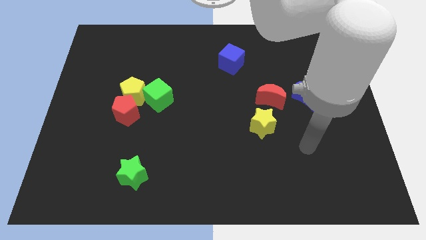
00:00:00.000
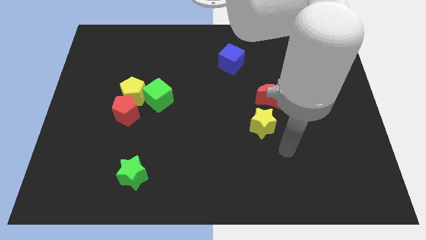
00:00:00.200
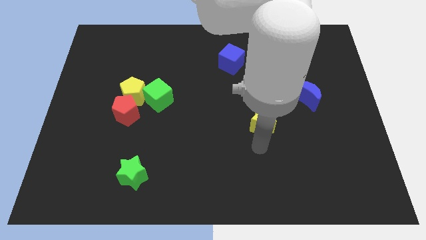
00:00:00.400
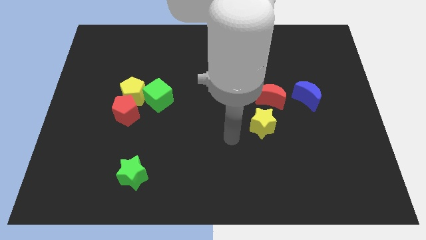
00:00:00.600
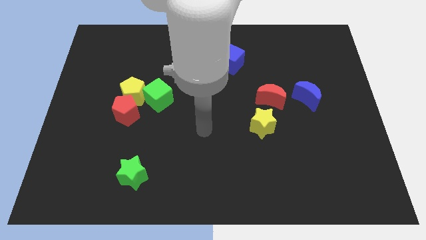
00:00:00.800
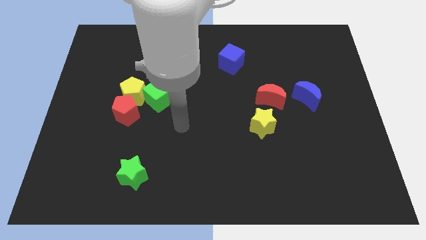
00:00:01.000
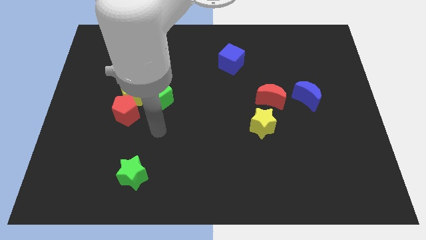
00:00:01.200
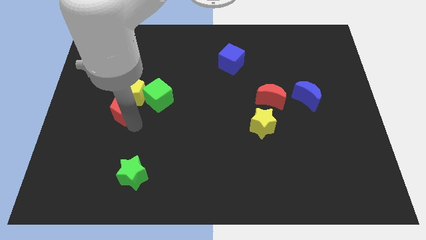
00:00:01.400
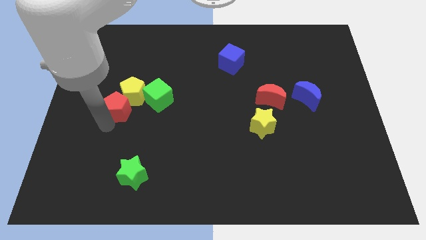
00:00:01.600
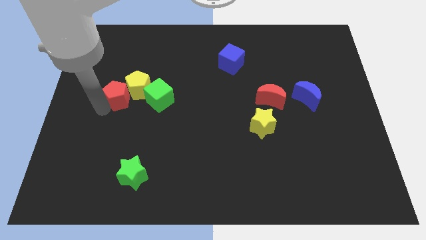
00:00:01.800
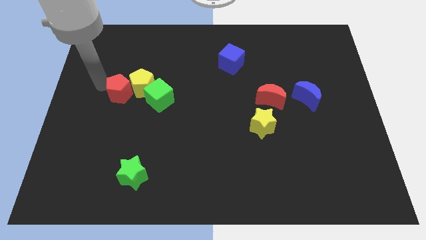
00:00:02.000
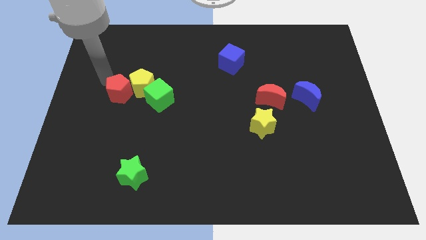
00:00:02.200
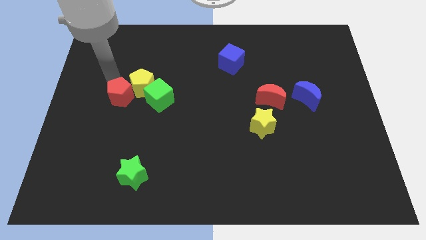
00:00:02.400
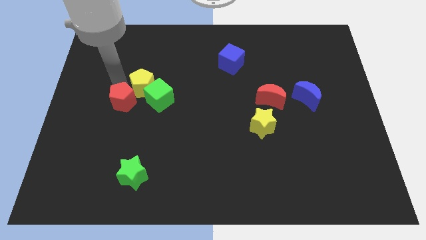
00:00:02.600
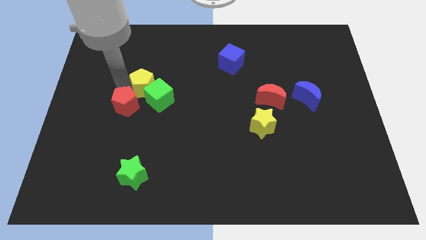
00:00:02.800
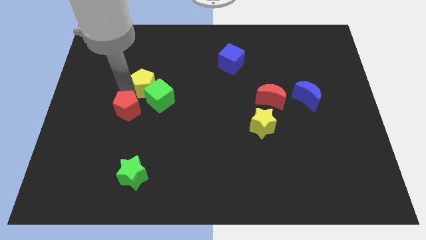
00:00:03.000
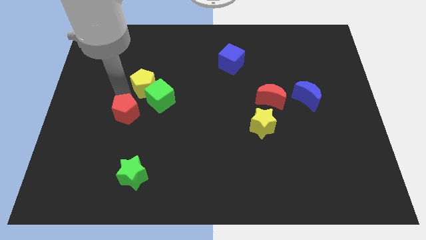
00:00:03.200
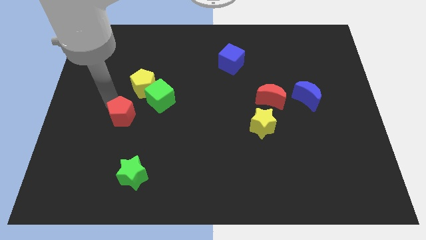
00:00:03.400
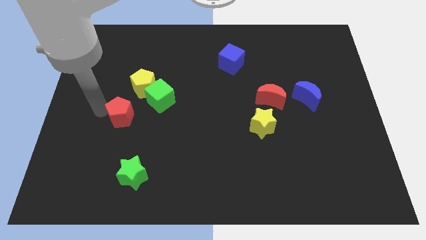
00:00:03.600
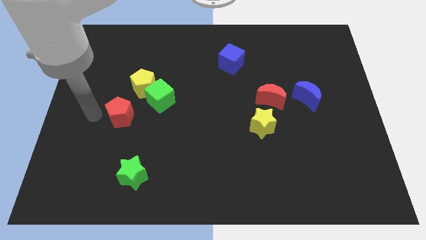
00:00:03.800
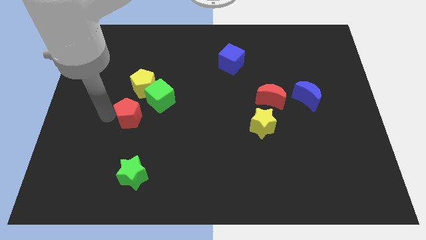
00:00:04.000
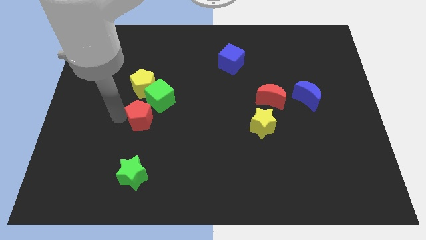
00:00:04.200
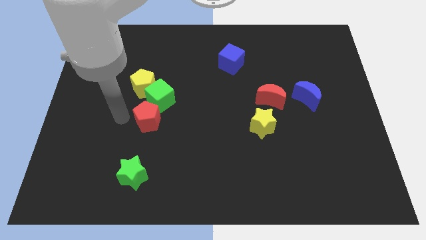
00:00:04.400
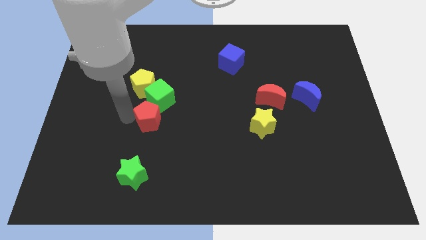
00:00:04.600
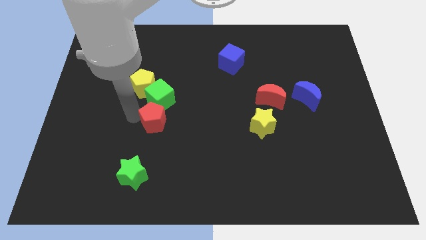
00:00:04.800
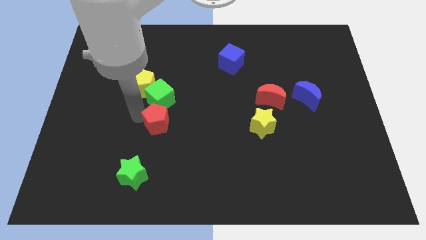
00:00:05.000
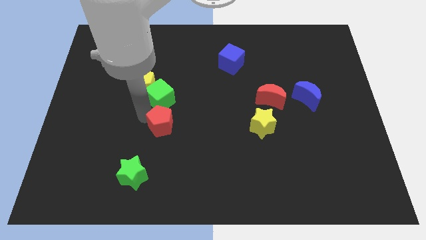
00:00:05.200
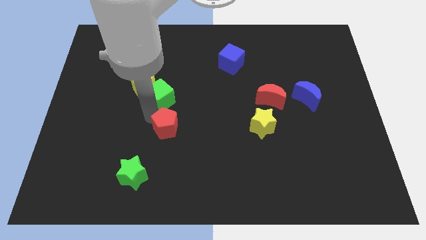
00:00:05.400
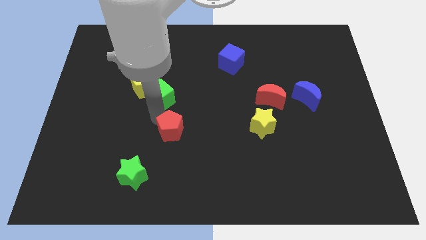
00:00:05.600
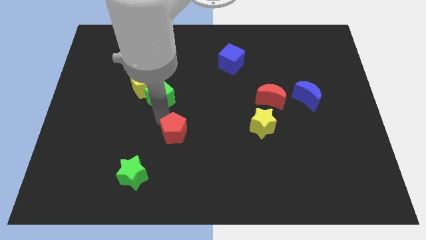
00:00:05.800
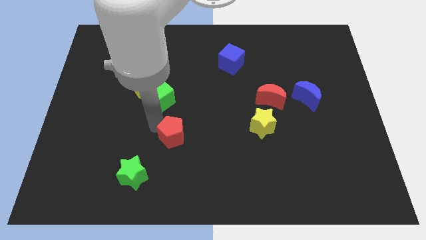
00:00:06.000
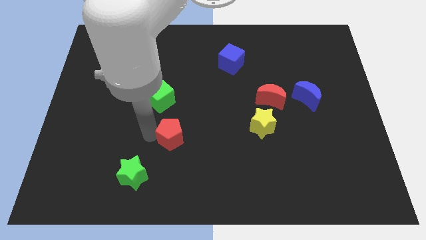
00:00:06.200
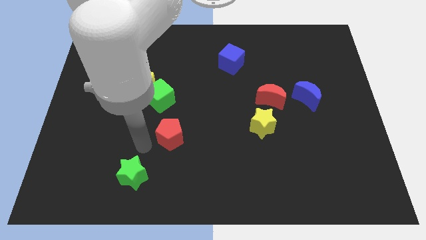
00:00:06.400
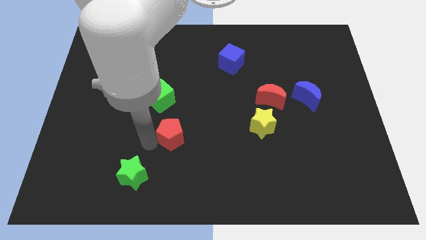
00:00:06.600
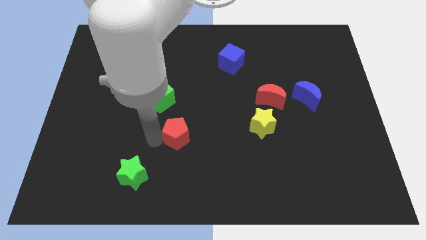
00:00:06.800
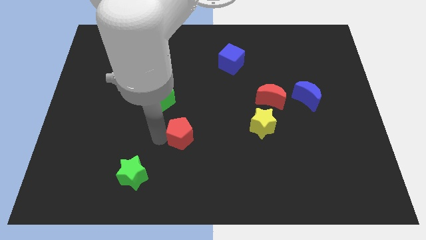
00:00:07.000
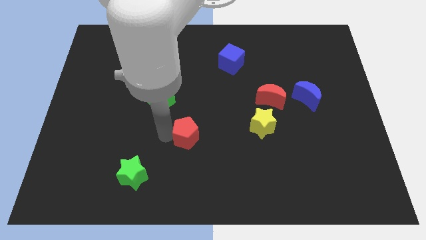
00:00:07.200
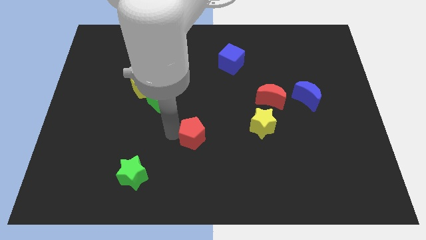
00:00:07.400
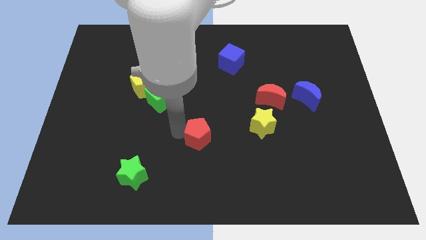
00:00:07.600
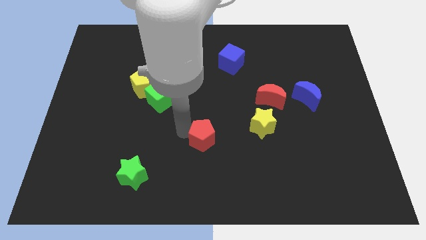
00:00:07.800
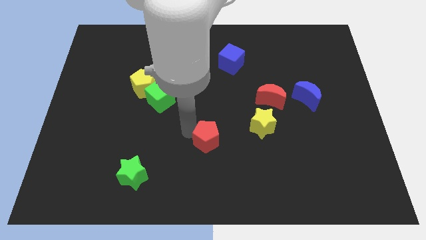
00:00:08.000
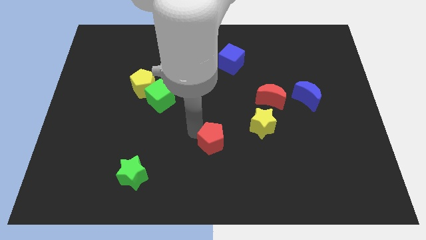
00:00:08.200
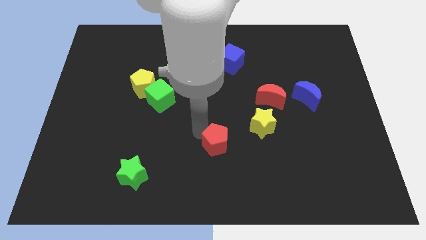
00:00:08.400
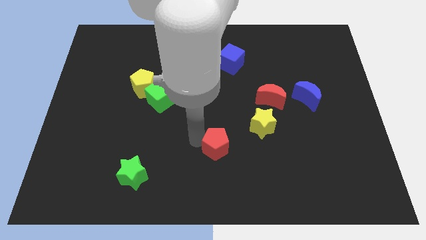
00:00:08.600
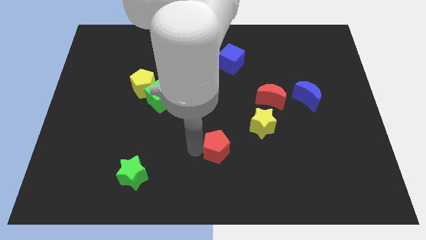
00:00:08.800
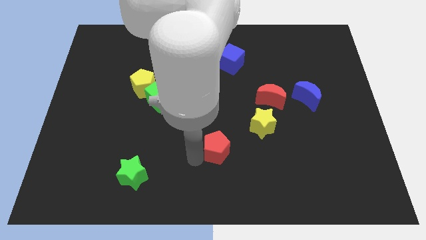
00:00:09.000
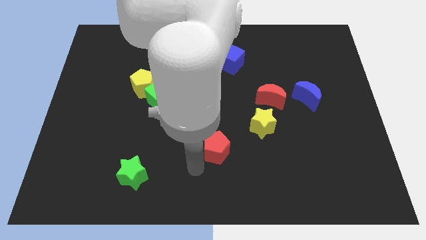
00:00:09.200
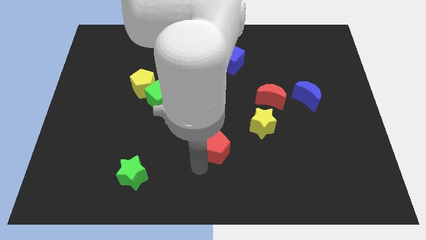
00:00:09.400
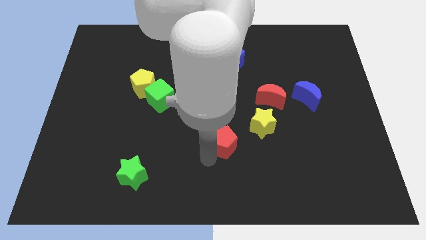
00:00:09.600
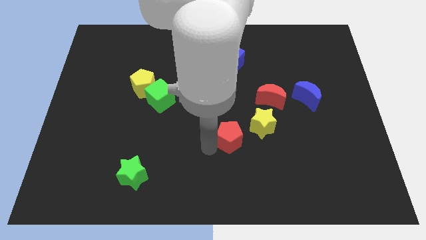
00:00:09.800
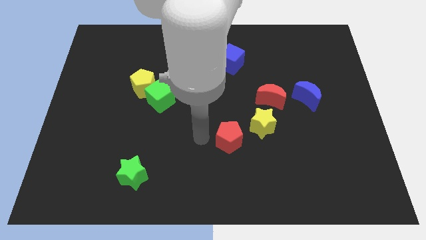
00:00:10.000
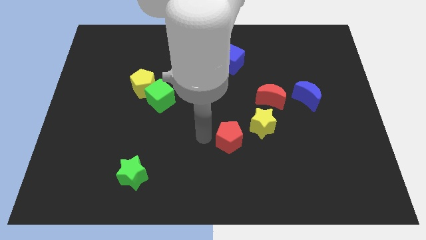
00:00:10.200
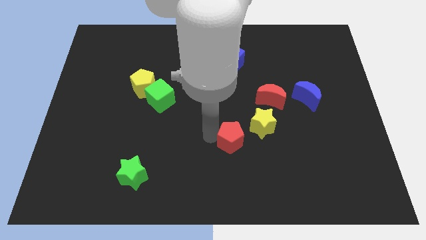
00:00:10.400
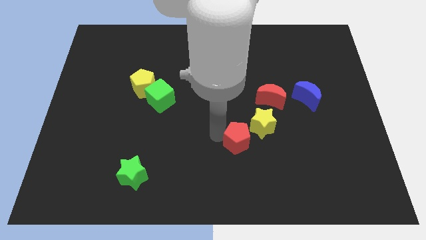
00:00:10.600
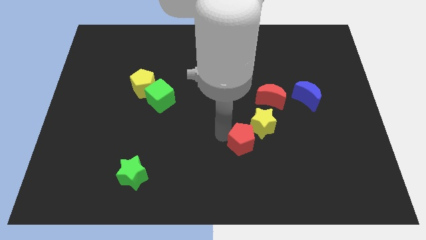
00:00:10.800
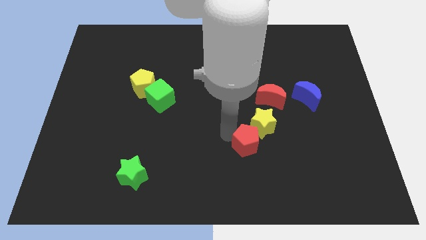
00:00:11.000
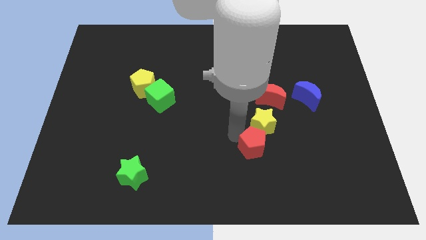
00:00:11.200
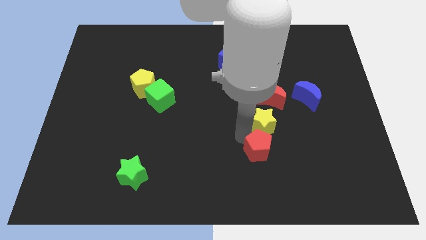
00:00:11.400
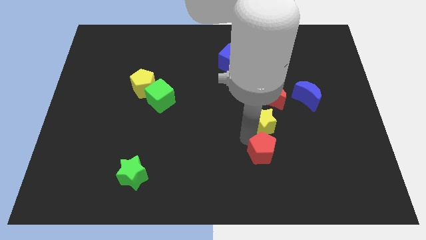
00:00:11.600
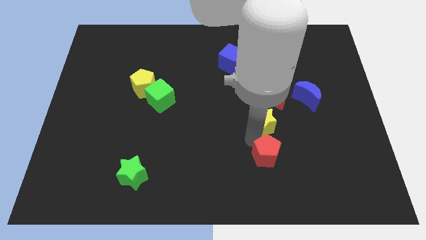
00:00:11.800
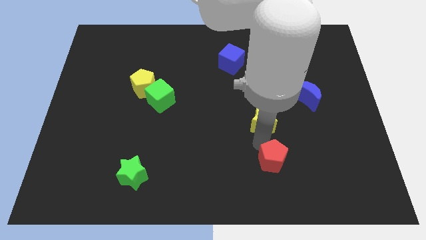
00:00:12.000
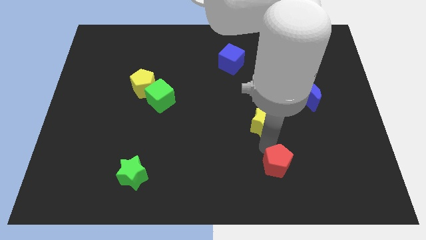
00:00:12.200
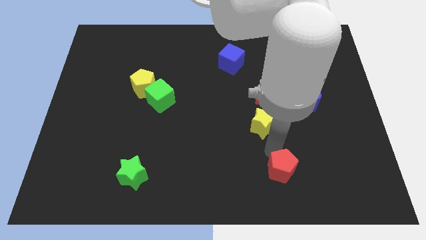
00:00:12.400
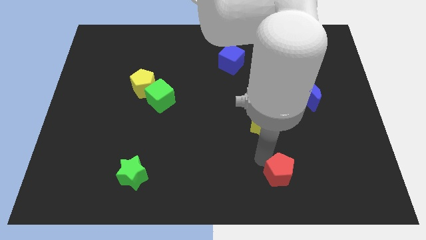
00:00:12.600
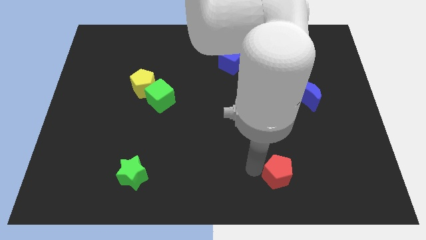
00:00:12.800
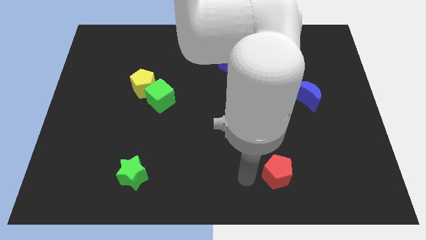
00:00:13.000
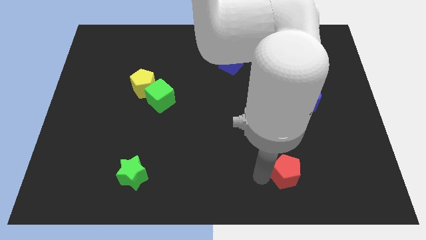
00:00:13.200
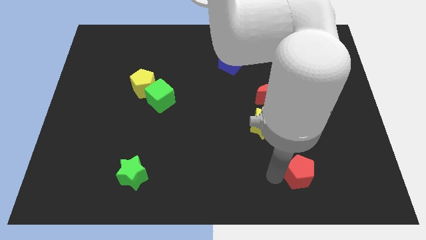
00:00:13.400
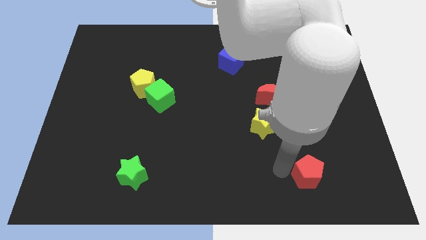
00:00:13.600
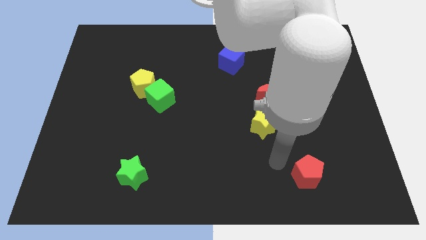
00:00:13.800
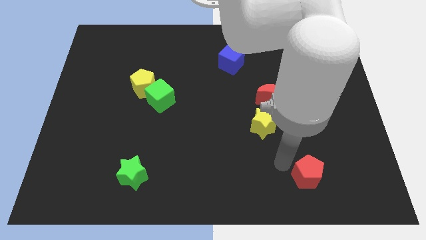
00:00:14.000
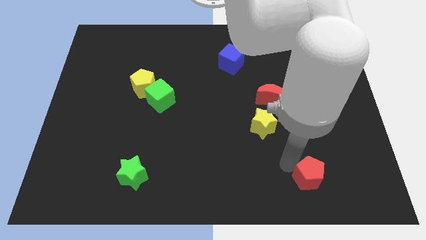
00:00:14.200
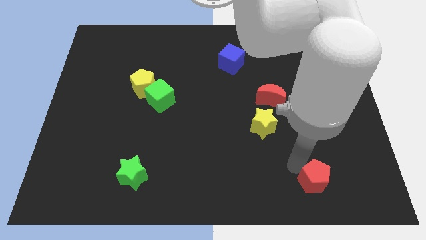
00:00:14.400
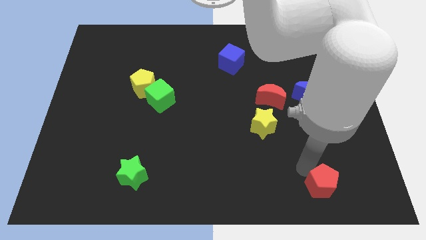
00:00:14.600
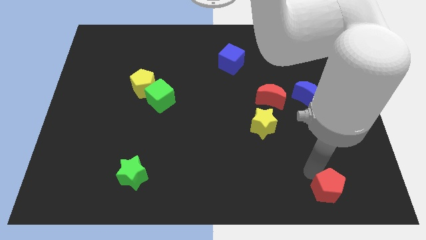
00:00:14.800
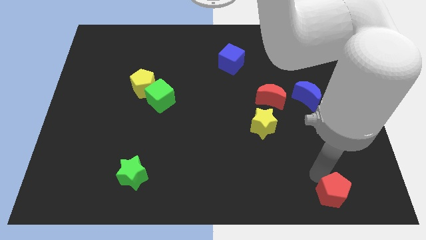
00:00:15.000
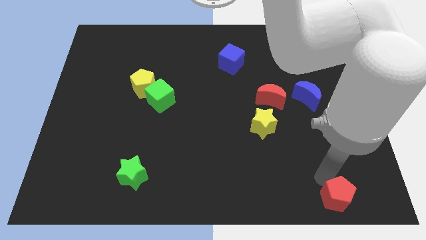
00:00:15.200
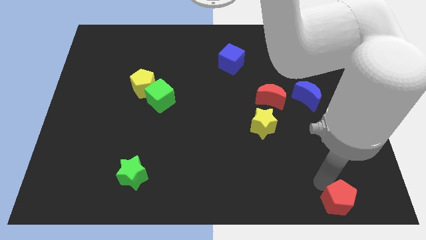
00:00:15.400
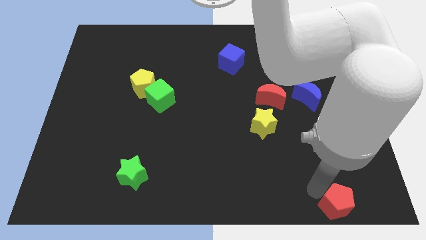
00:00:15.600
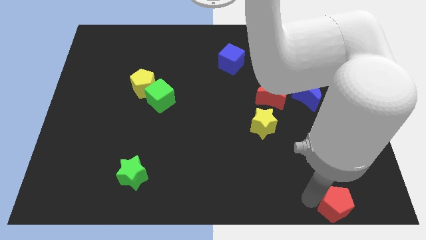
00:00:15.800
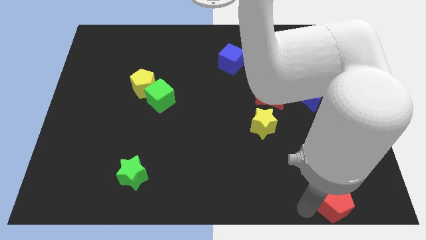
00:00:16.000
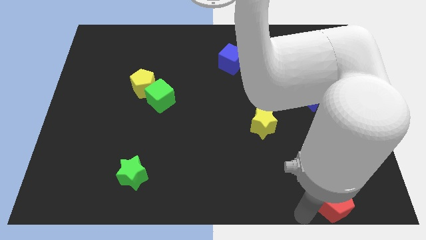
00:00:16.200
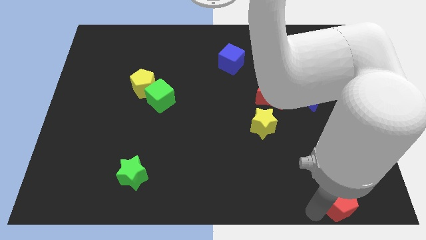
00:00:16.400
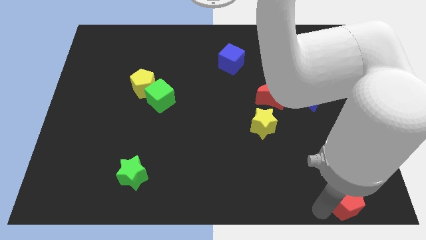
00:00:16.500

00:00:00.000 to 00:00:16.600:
push the red pentagon to the bottom right corner
